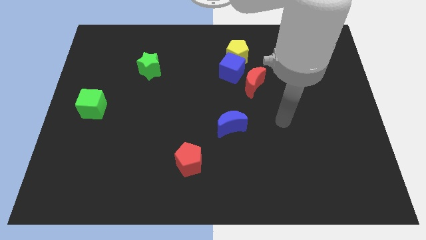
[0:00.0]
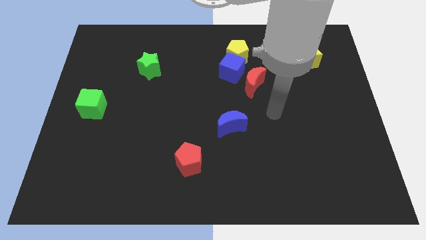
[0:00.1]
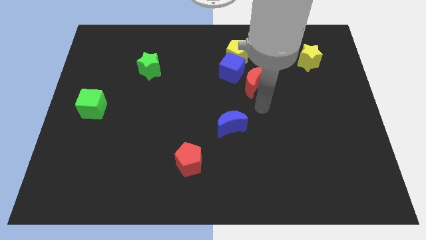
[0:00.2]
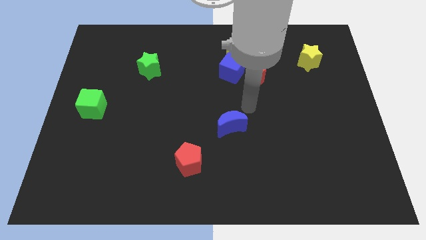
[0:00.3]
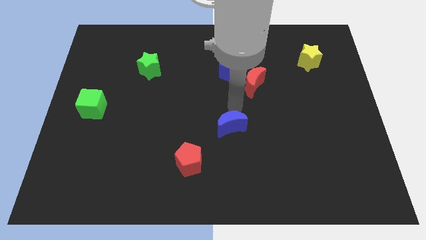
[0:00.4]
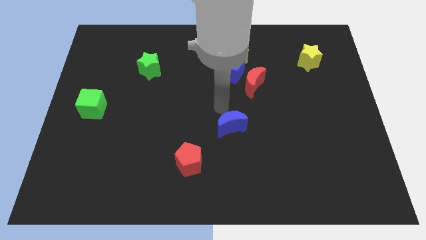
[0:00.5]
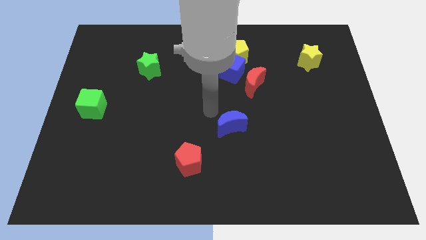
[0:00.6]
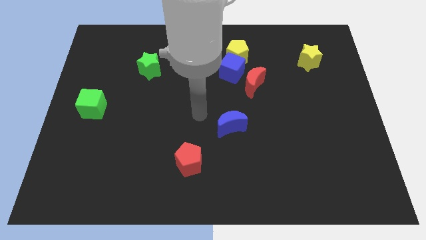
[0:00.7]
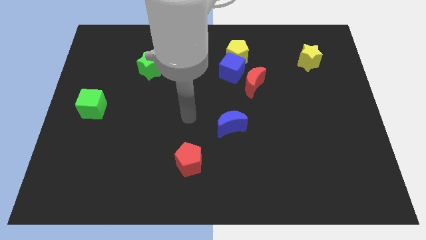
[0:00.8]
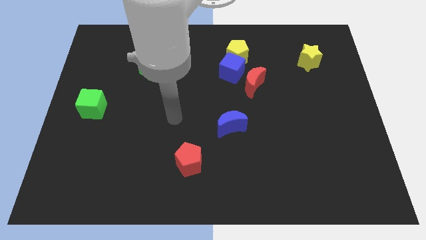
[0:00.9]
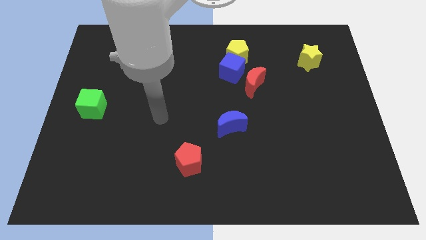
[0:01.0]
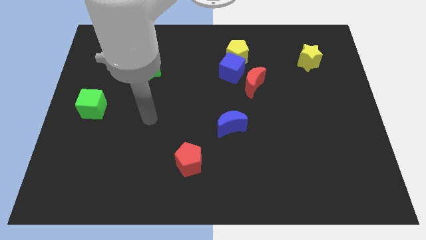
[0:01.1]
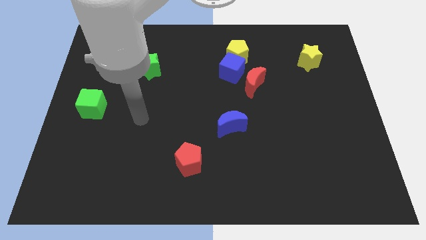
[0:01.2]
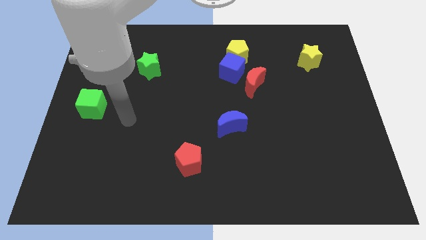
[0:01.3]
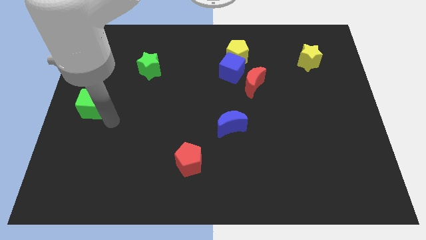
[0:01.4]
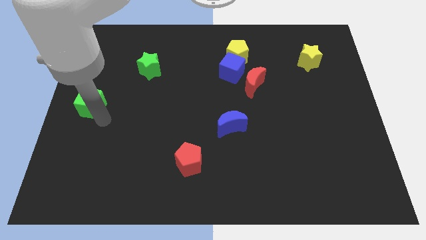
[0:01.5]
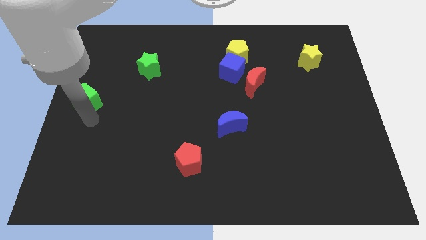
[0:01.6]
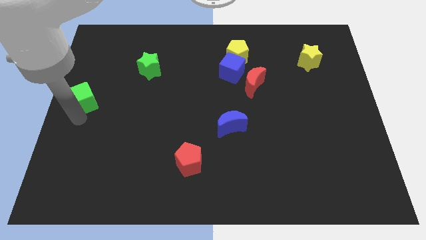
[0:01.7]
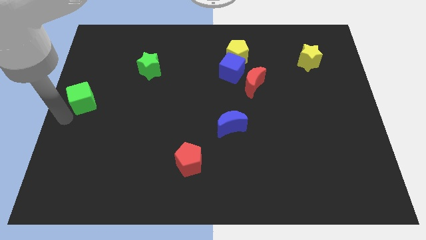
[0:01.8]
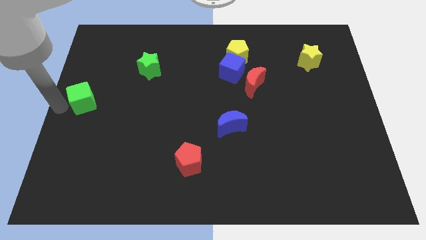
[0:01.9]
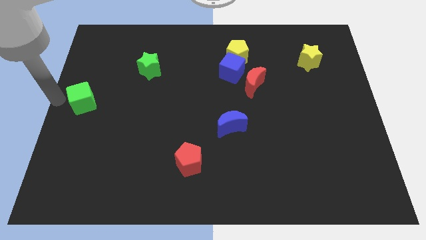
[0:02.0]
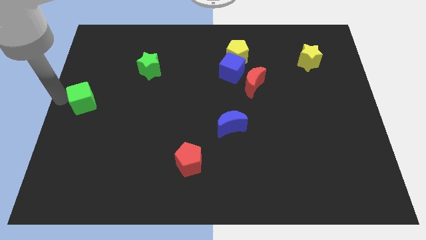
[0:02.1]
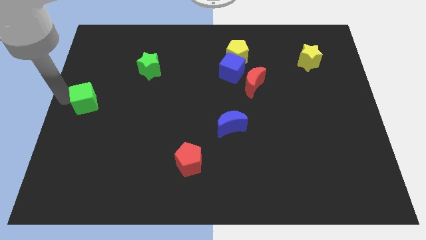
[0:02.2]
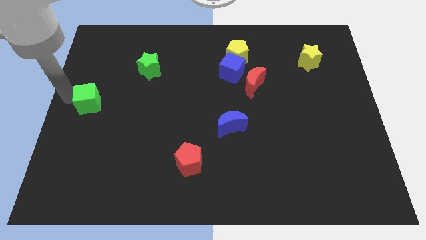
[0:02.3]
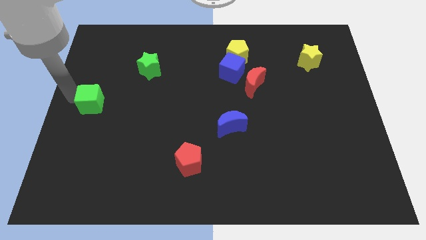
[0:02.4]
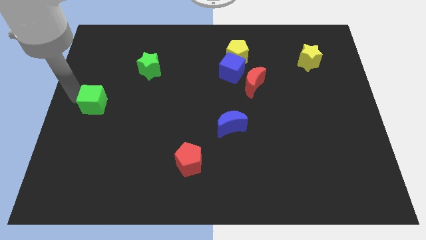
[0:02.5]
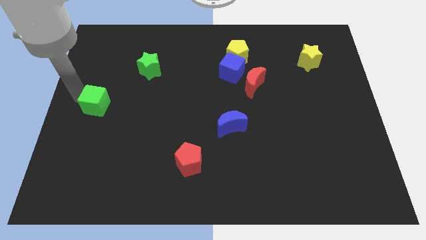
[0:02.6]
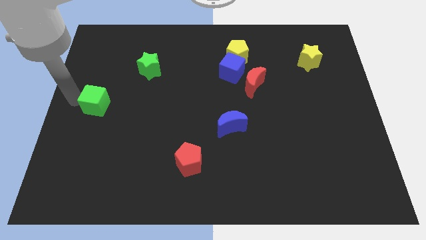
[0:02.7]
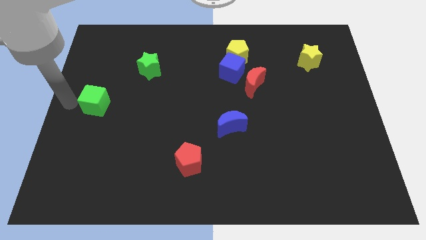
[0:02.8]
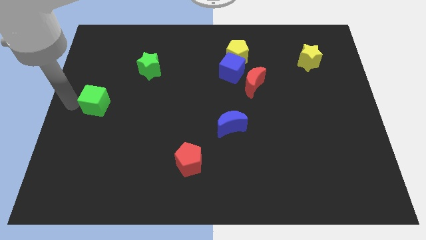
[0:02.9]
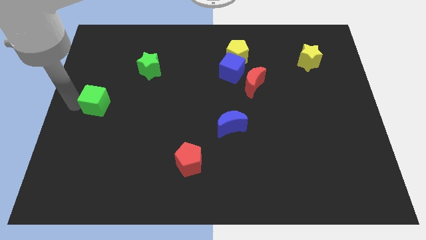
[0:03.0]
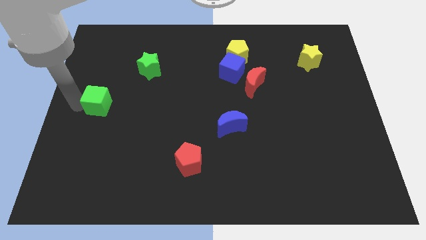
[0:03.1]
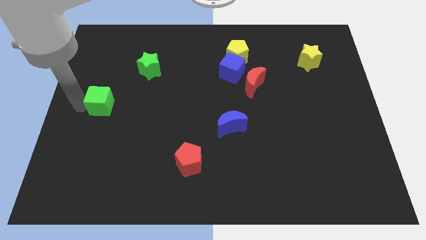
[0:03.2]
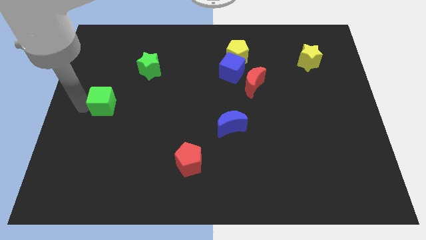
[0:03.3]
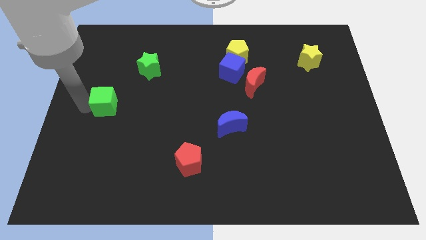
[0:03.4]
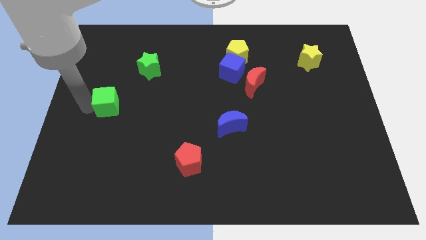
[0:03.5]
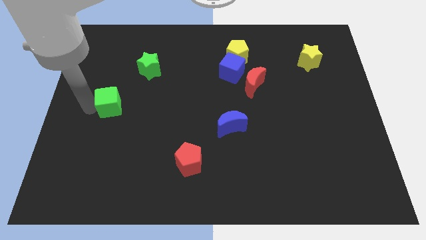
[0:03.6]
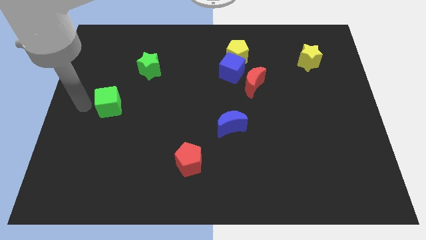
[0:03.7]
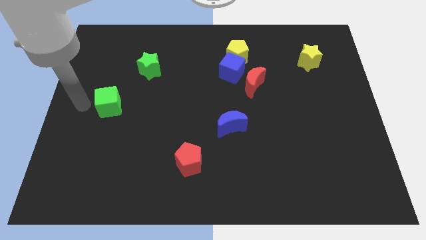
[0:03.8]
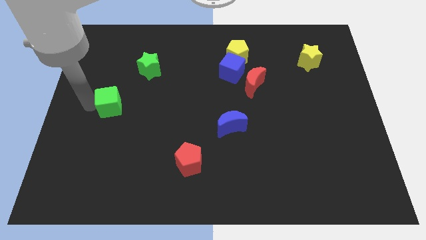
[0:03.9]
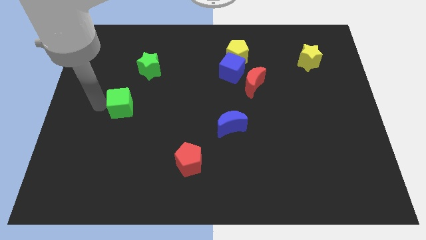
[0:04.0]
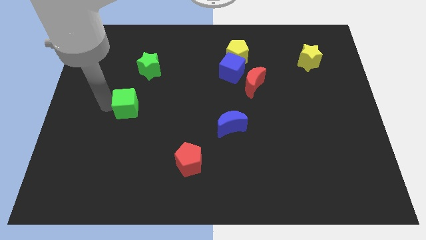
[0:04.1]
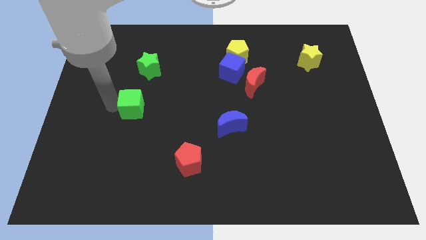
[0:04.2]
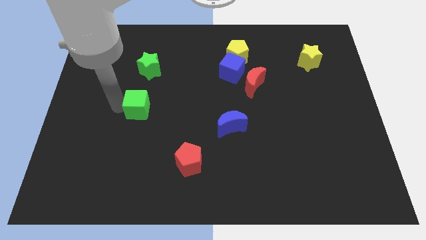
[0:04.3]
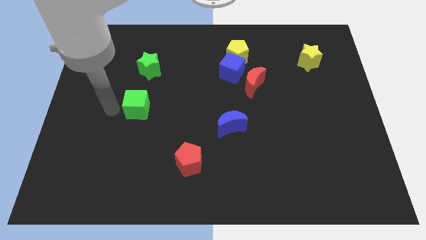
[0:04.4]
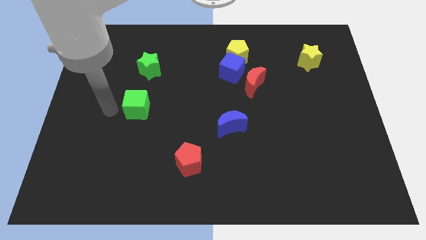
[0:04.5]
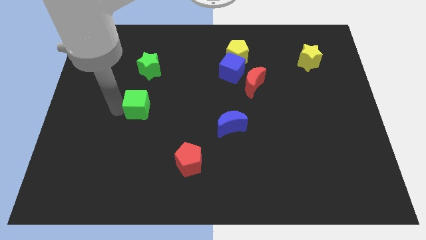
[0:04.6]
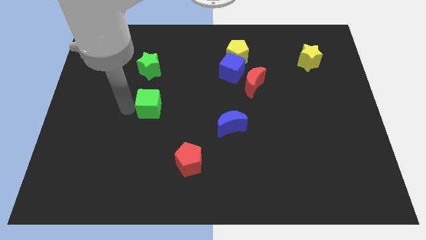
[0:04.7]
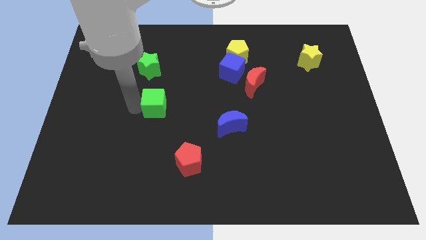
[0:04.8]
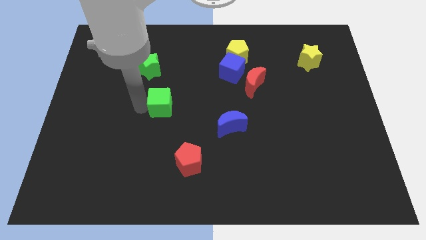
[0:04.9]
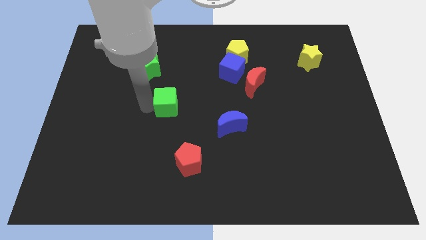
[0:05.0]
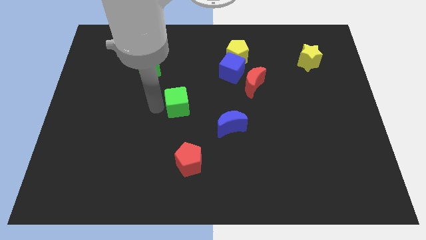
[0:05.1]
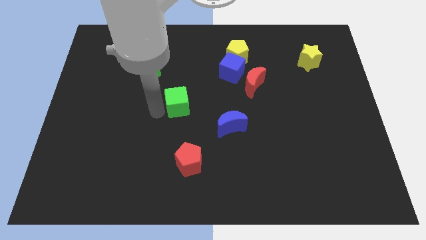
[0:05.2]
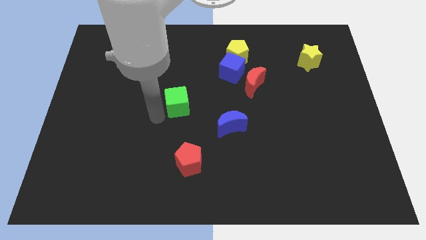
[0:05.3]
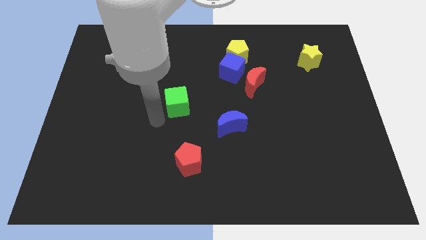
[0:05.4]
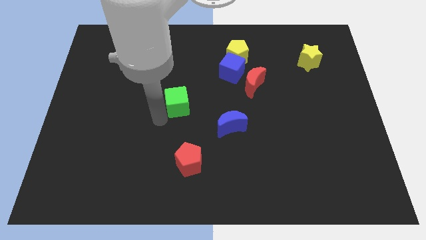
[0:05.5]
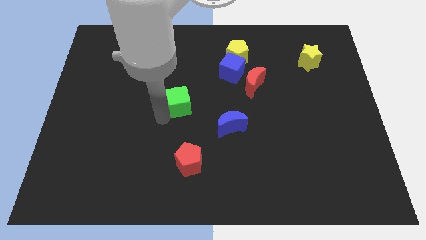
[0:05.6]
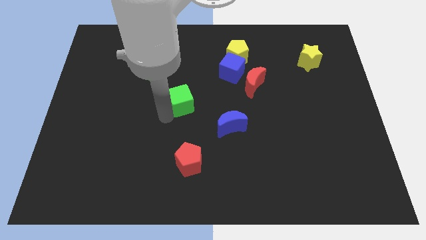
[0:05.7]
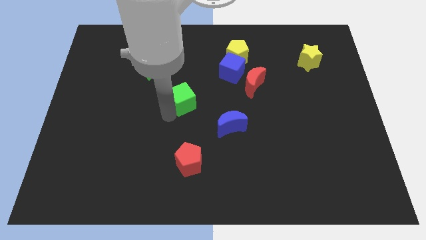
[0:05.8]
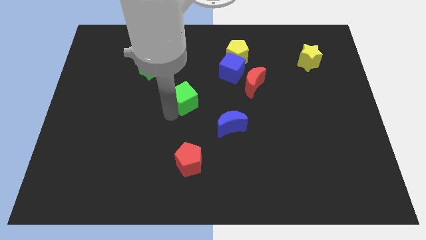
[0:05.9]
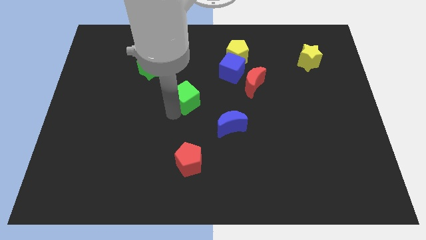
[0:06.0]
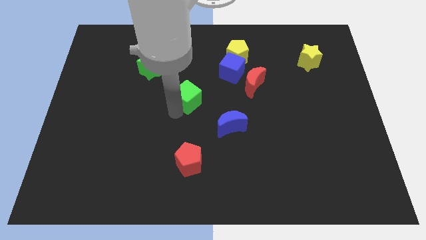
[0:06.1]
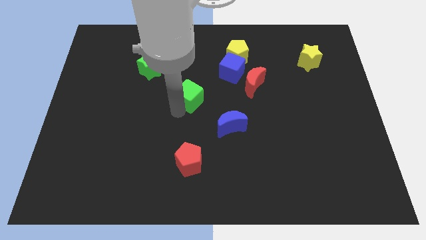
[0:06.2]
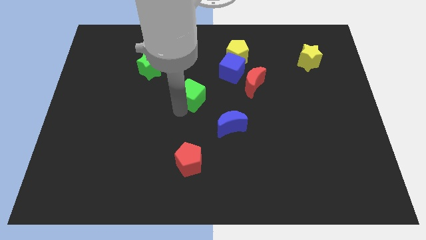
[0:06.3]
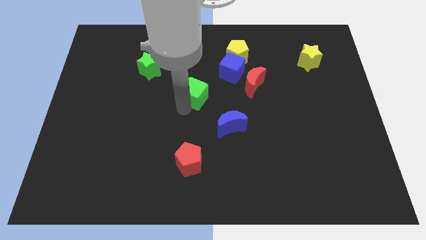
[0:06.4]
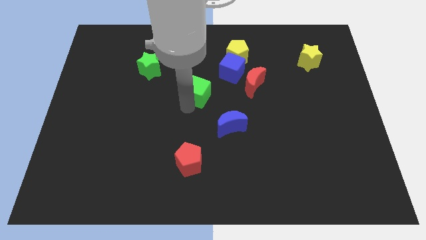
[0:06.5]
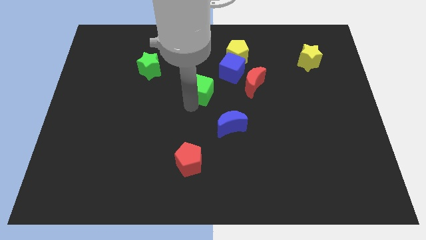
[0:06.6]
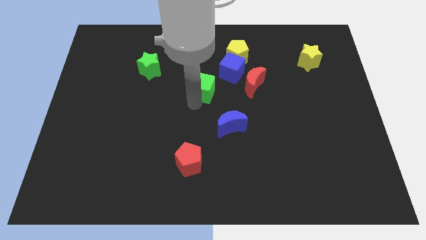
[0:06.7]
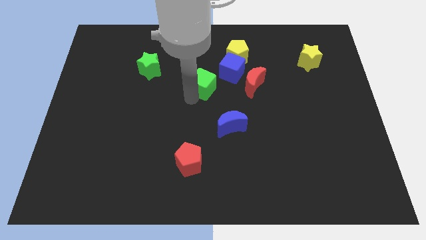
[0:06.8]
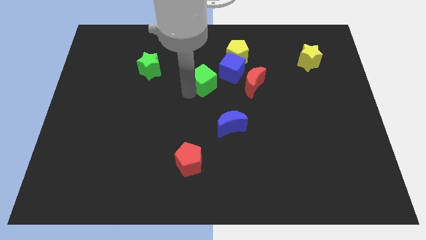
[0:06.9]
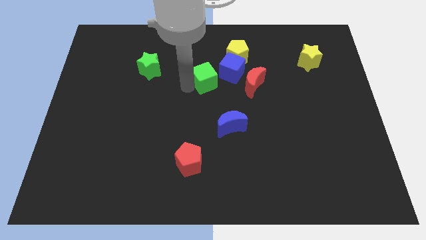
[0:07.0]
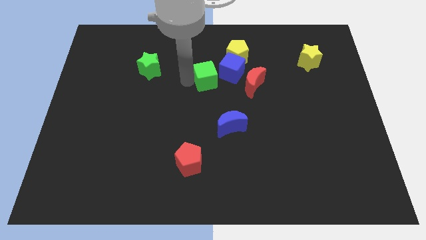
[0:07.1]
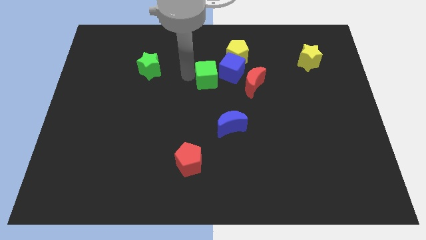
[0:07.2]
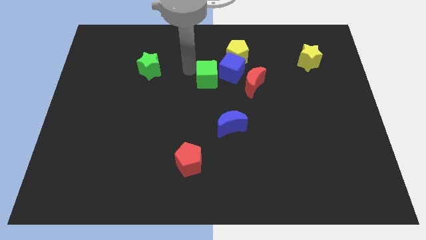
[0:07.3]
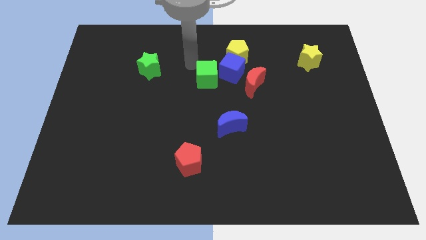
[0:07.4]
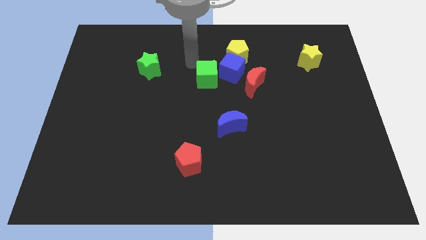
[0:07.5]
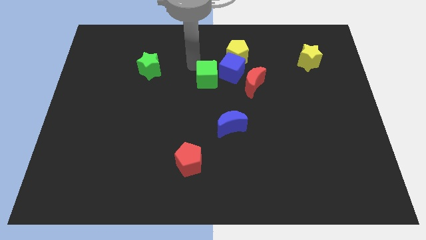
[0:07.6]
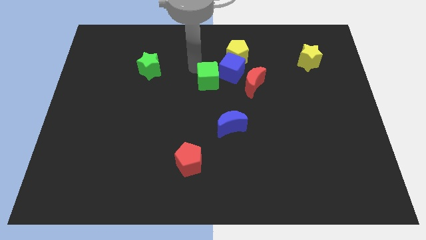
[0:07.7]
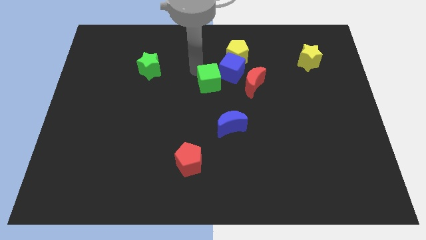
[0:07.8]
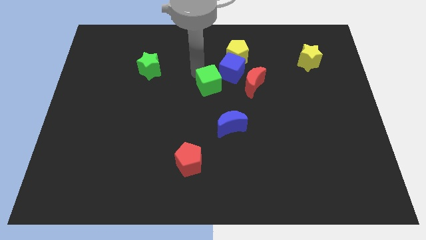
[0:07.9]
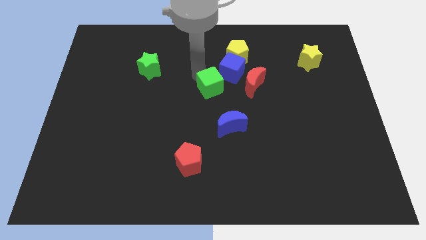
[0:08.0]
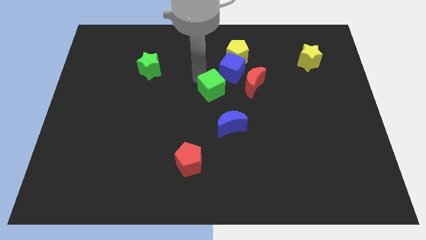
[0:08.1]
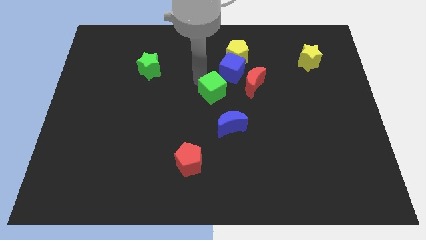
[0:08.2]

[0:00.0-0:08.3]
push the green cube to the bottom side of the blue cube
